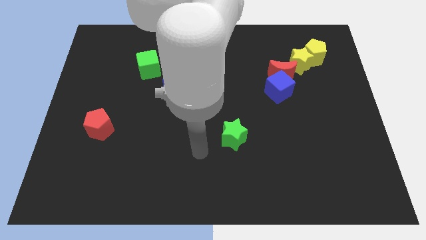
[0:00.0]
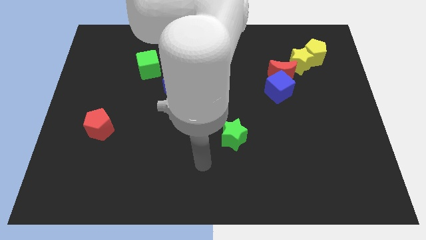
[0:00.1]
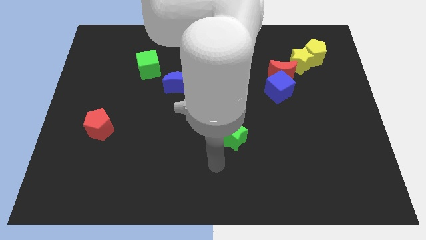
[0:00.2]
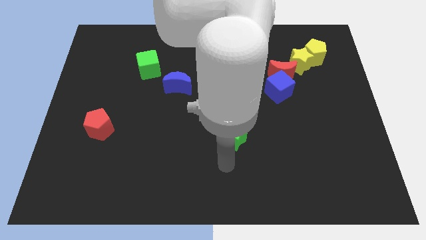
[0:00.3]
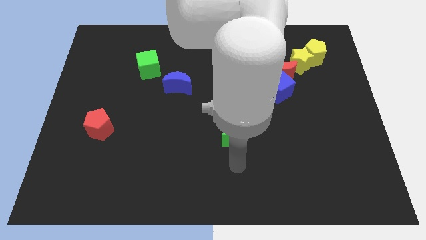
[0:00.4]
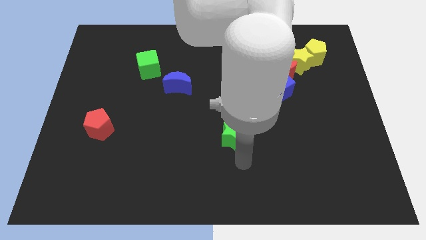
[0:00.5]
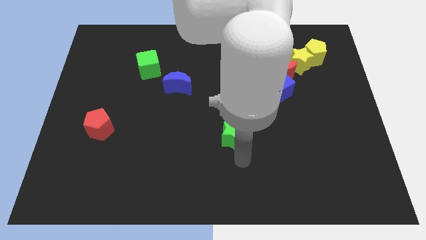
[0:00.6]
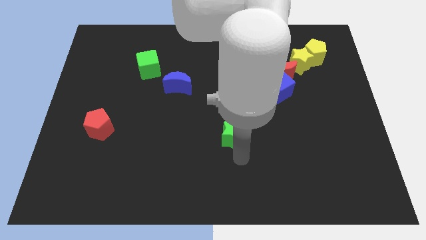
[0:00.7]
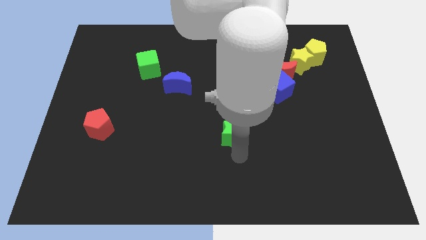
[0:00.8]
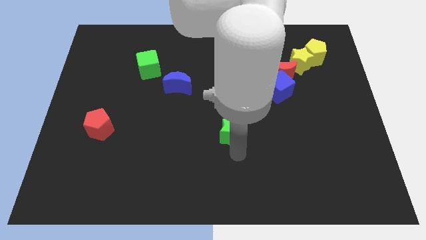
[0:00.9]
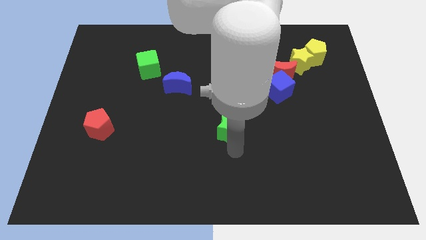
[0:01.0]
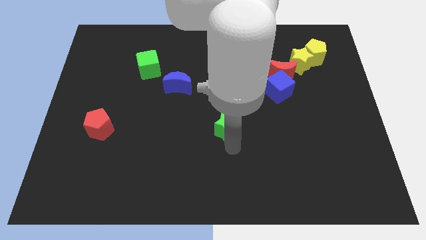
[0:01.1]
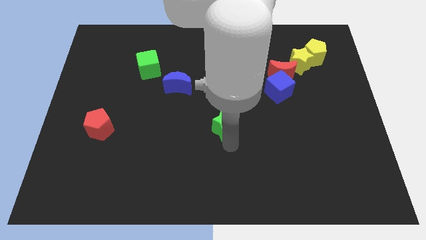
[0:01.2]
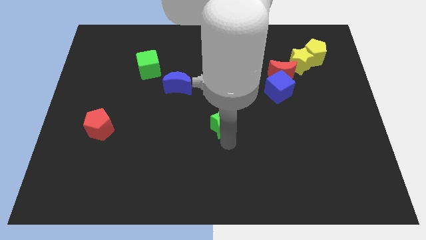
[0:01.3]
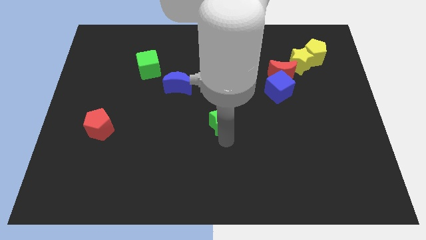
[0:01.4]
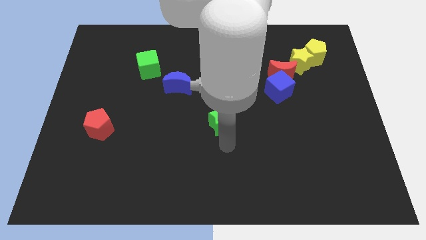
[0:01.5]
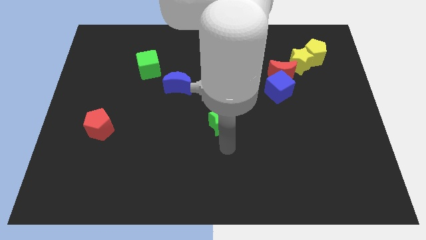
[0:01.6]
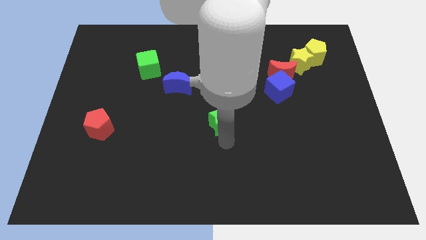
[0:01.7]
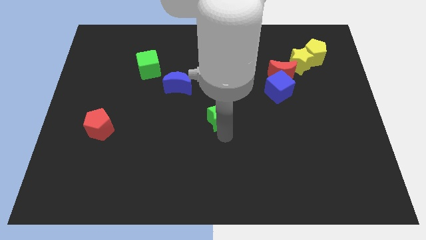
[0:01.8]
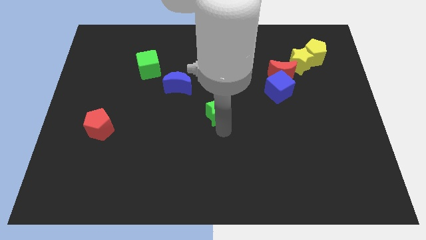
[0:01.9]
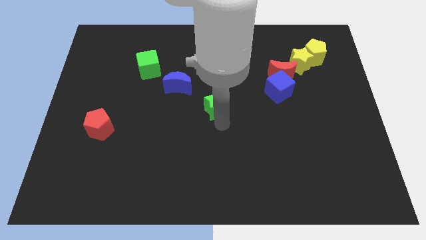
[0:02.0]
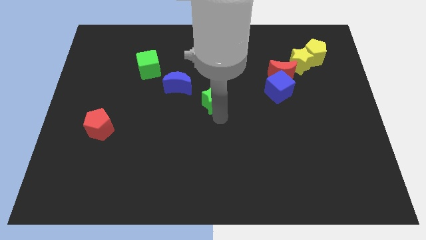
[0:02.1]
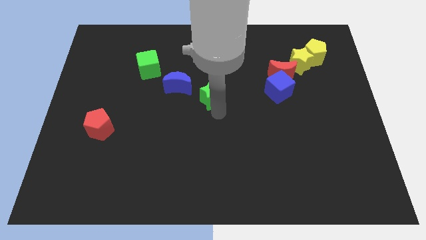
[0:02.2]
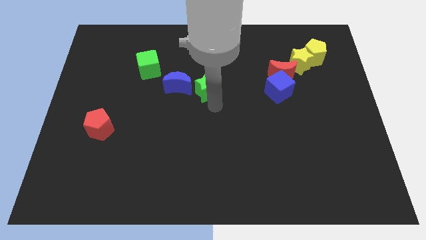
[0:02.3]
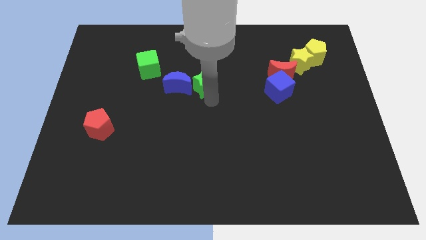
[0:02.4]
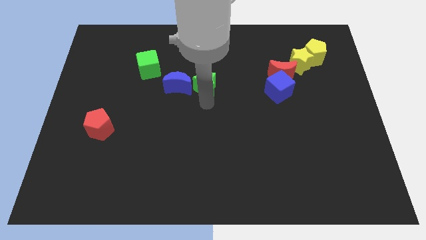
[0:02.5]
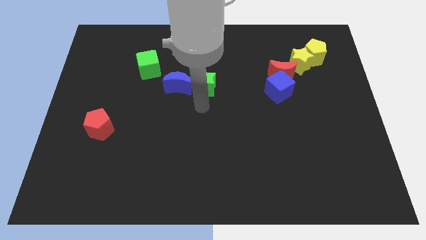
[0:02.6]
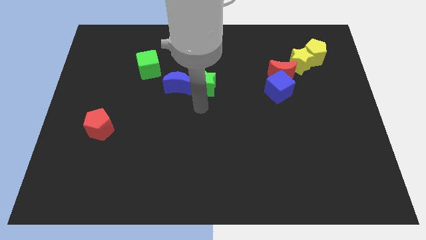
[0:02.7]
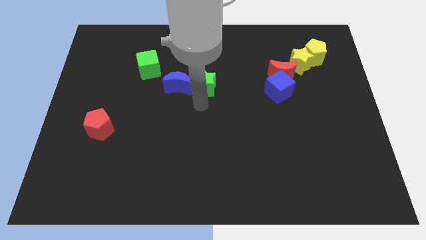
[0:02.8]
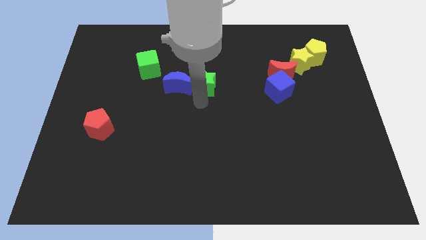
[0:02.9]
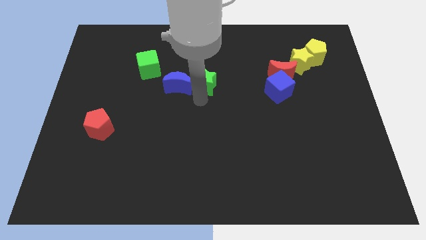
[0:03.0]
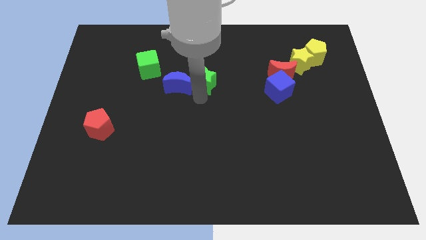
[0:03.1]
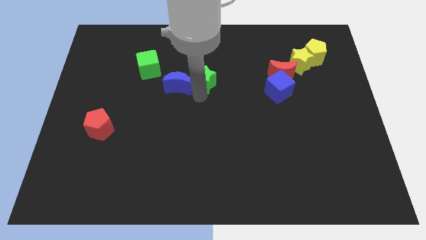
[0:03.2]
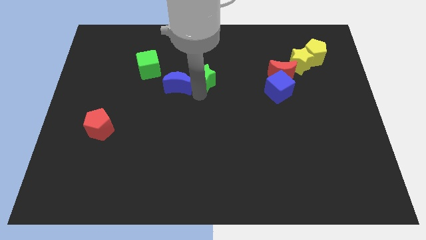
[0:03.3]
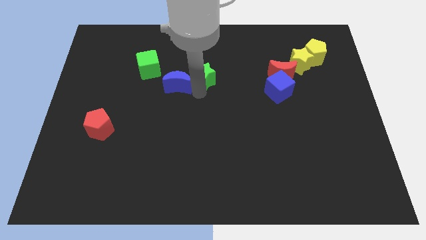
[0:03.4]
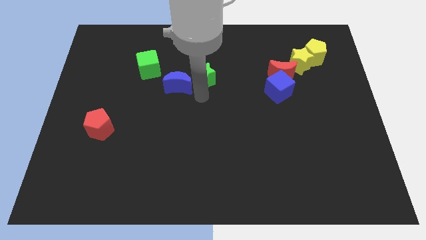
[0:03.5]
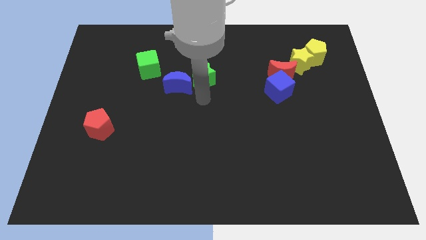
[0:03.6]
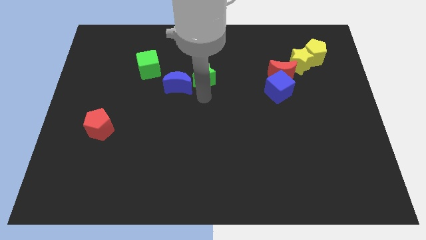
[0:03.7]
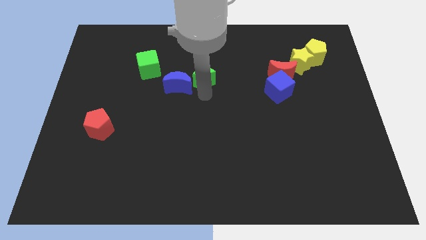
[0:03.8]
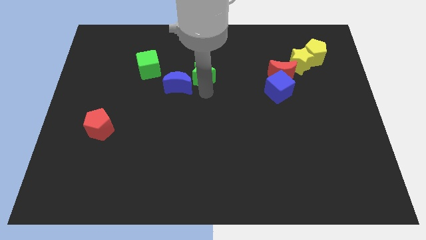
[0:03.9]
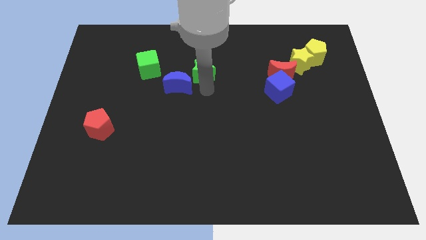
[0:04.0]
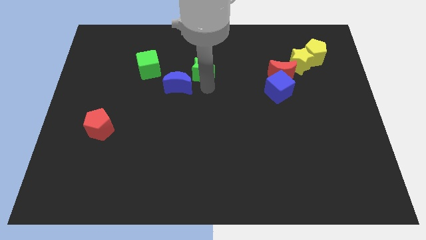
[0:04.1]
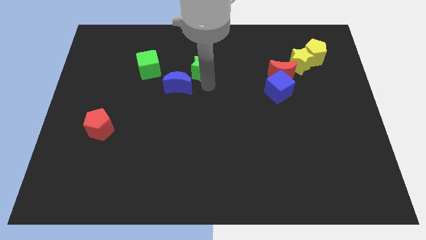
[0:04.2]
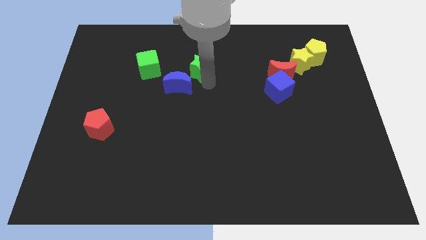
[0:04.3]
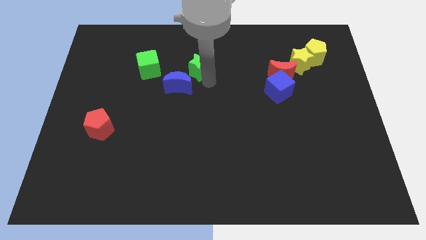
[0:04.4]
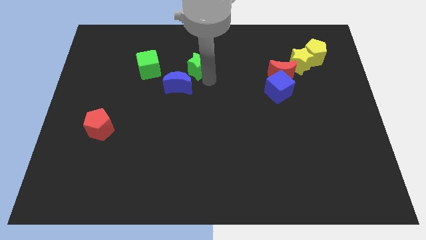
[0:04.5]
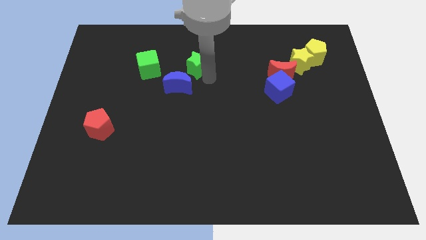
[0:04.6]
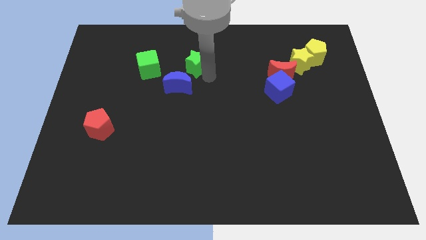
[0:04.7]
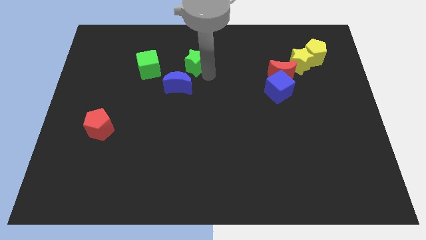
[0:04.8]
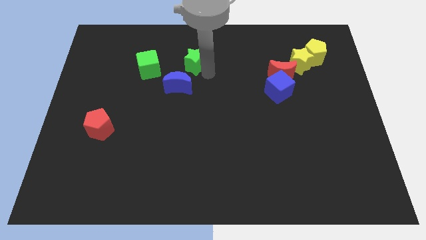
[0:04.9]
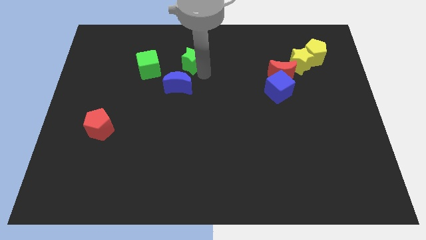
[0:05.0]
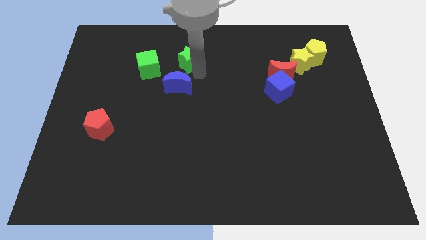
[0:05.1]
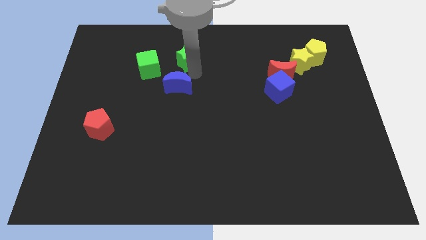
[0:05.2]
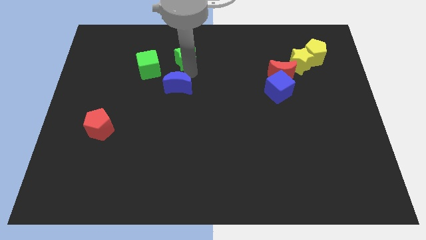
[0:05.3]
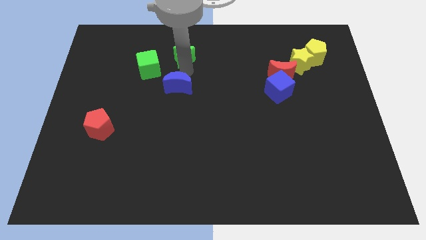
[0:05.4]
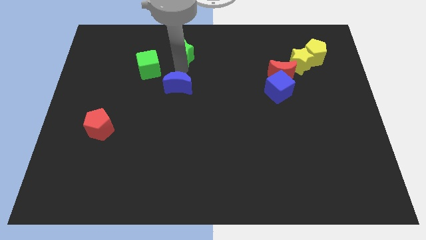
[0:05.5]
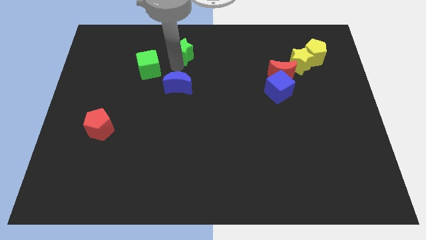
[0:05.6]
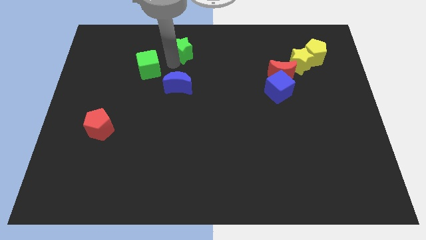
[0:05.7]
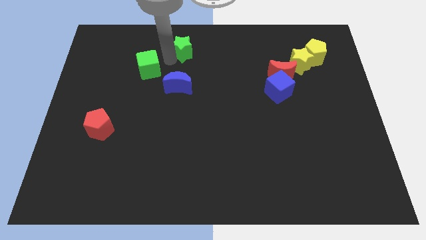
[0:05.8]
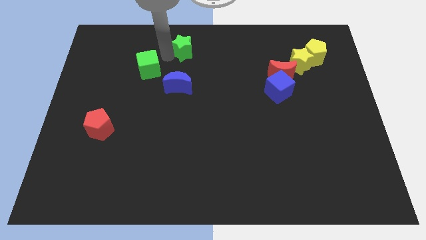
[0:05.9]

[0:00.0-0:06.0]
push the green star to the towards your base
